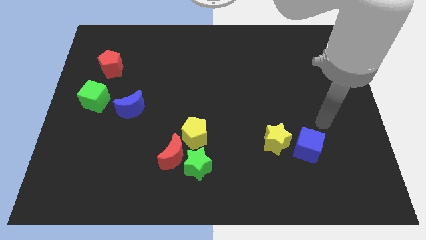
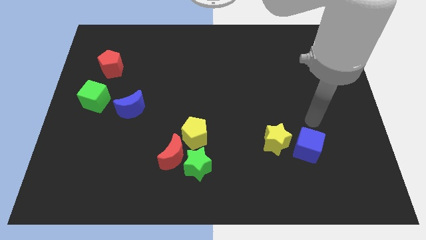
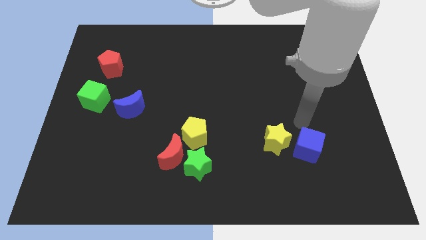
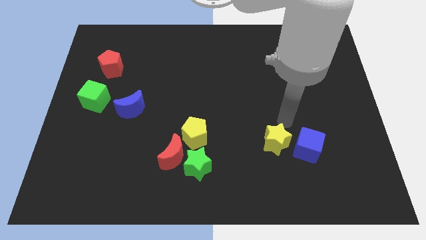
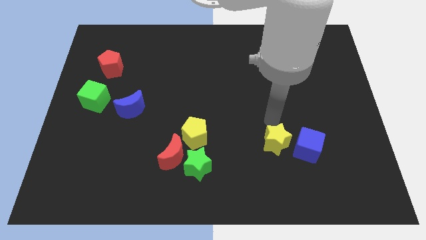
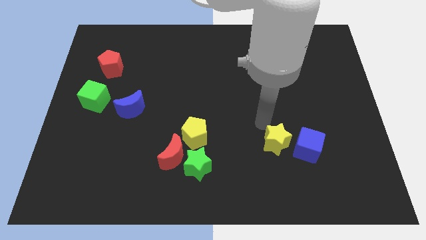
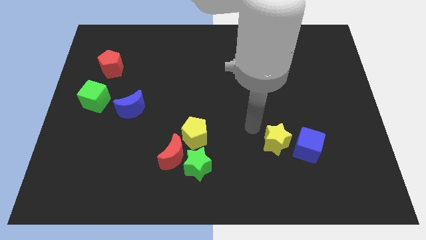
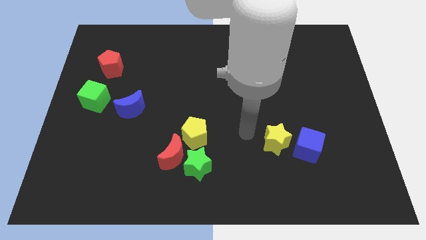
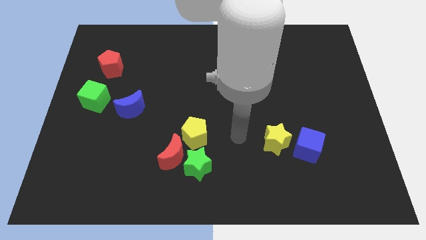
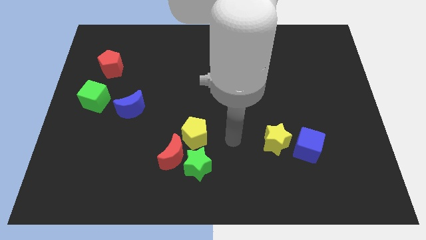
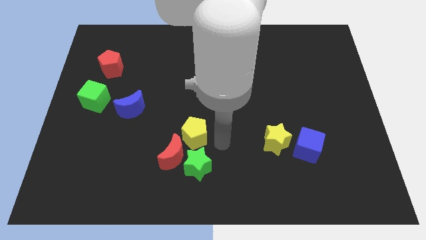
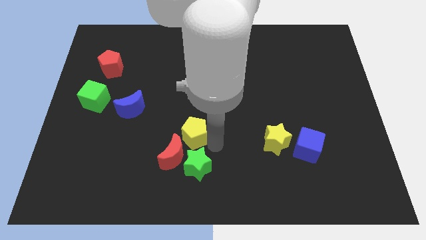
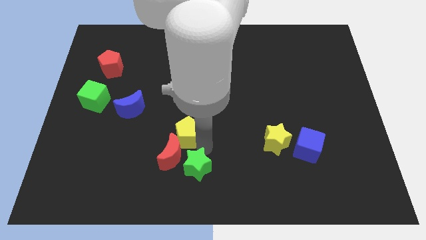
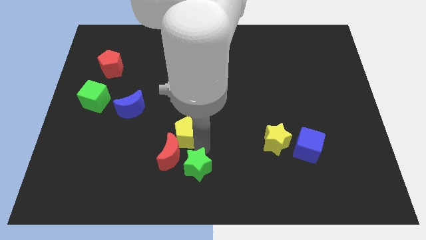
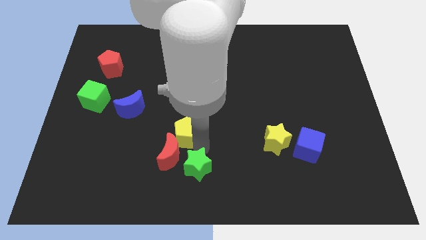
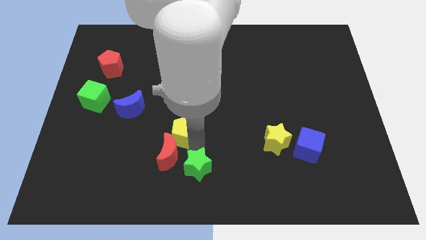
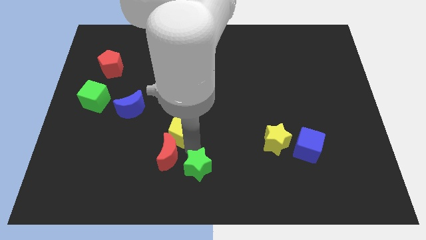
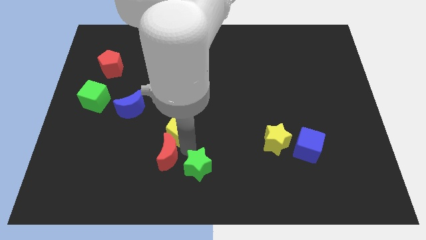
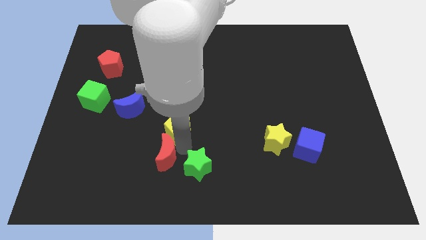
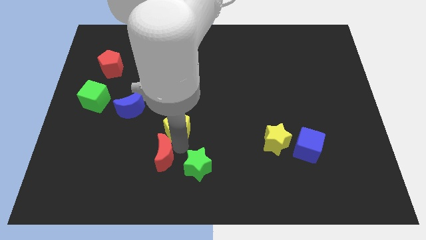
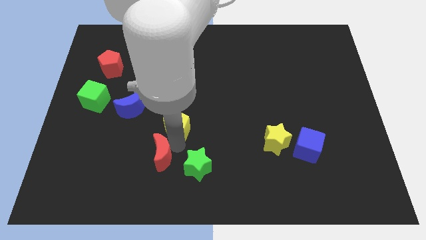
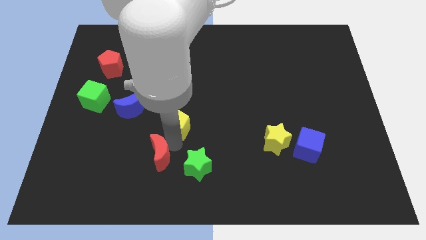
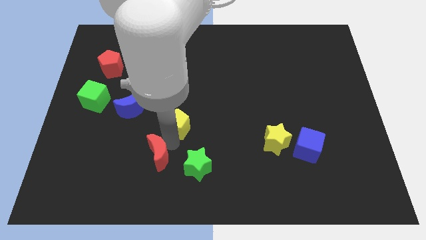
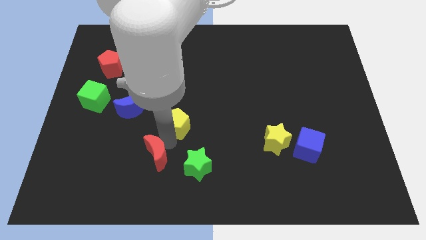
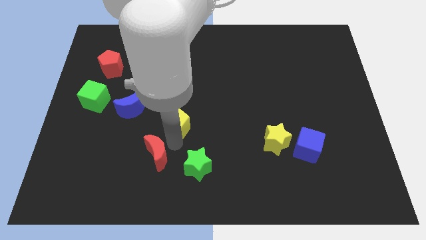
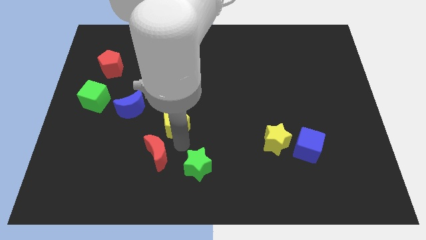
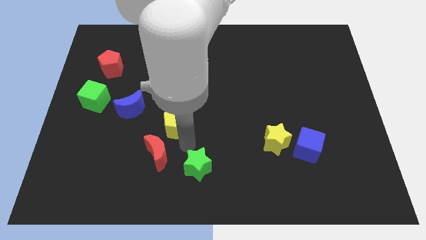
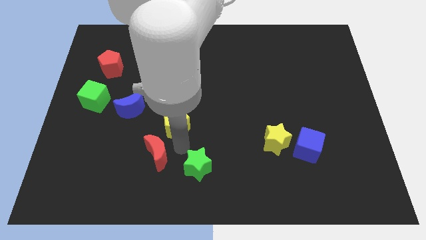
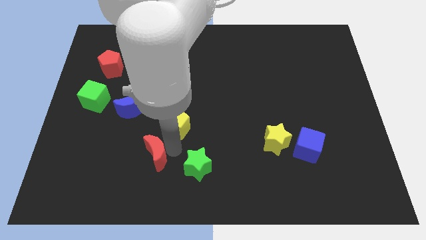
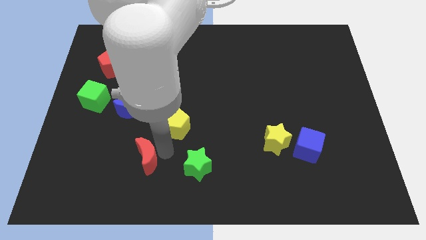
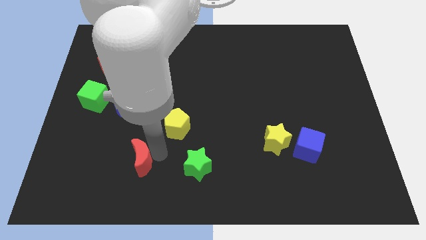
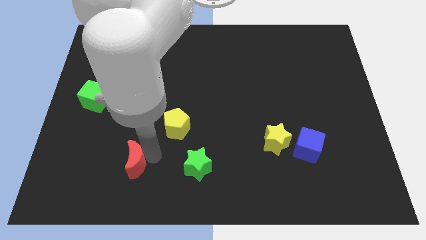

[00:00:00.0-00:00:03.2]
pull the red moon apart from the green star and yellow pentagon

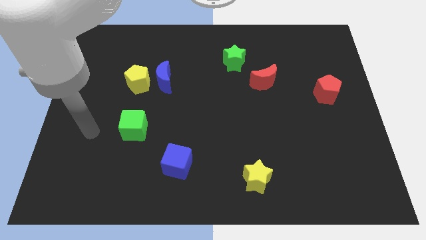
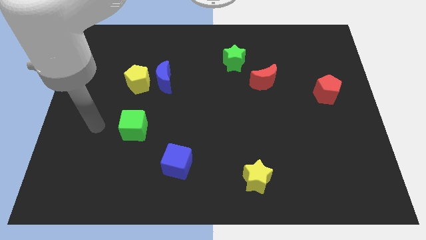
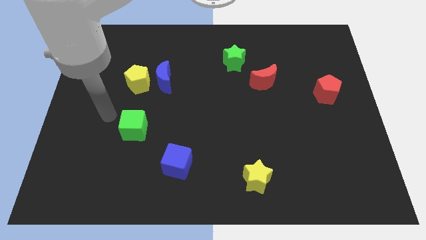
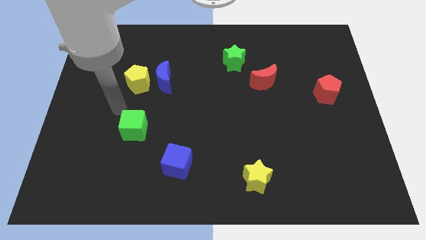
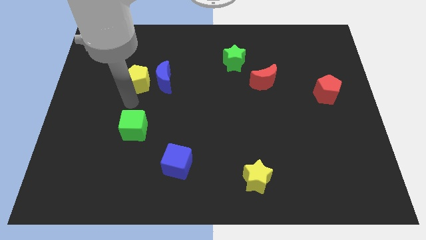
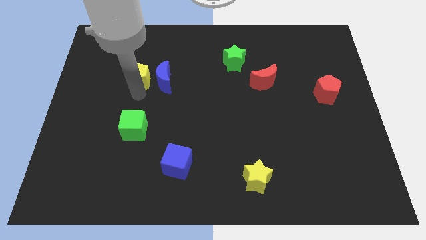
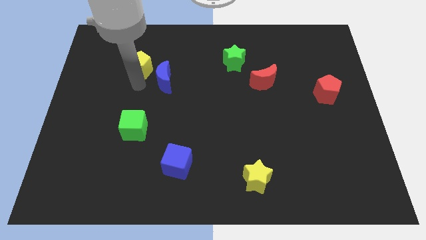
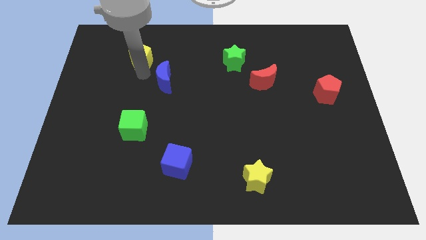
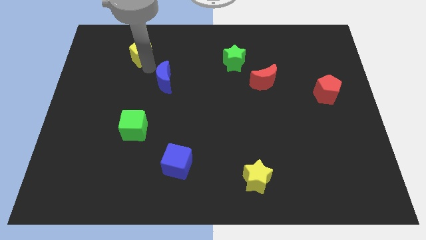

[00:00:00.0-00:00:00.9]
move the blue moon away from the yellow pentagon

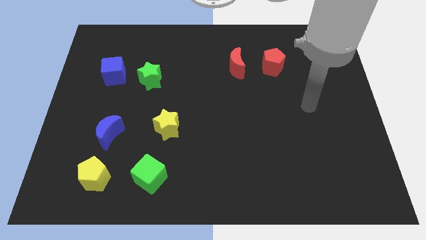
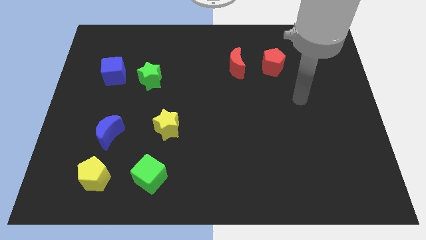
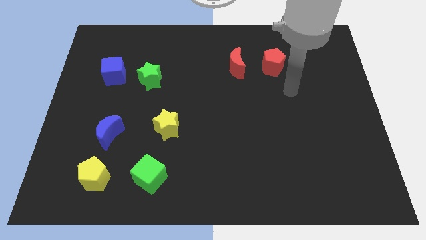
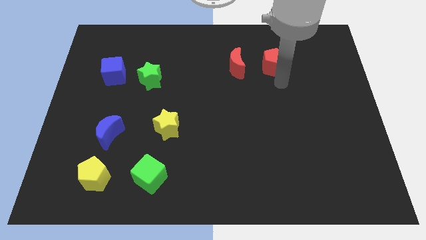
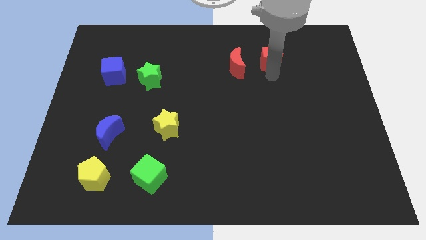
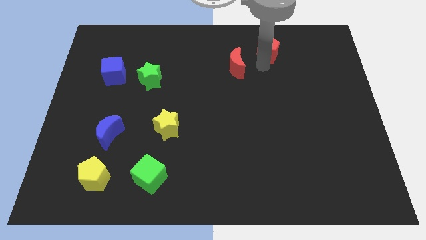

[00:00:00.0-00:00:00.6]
separate the red moon from the red pentagon

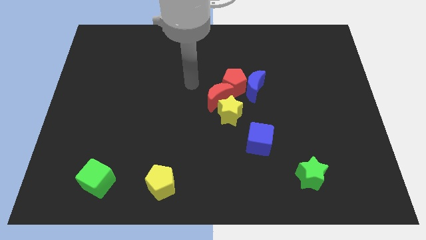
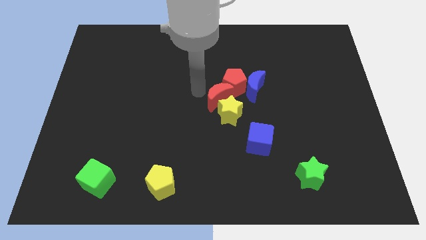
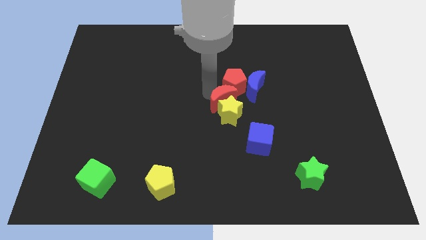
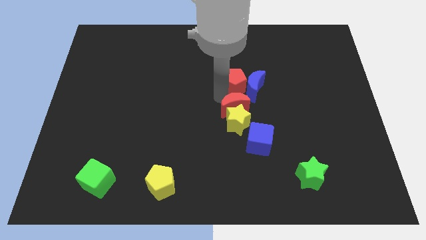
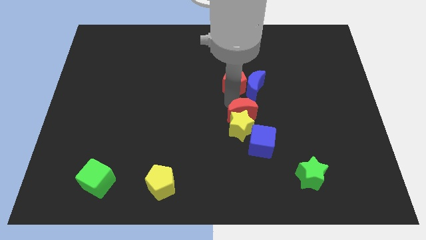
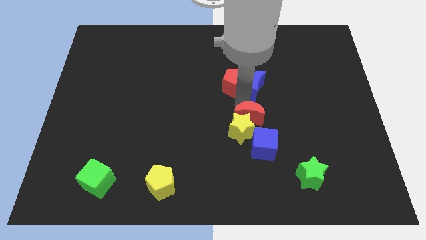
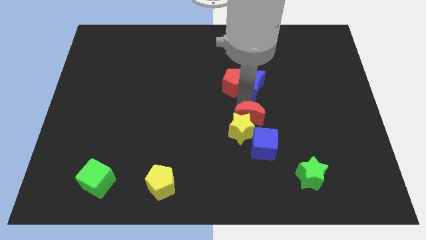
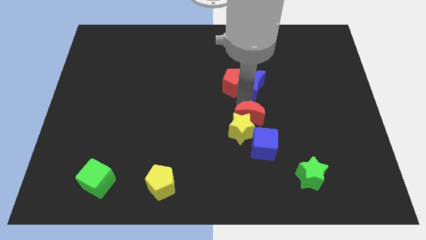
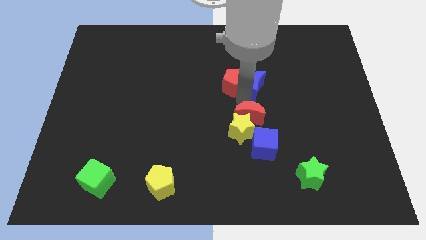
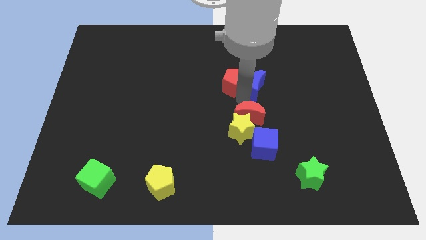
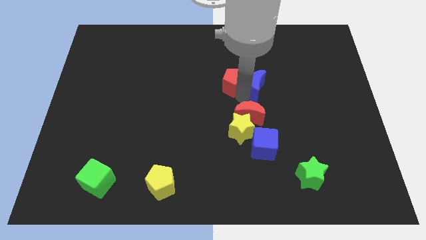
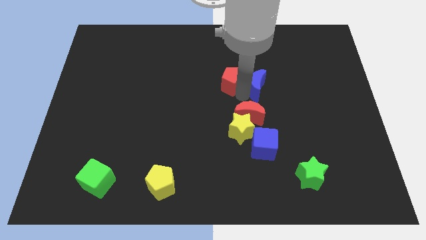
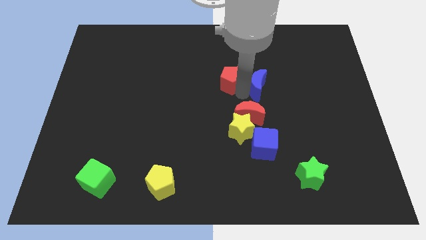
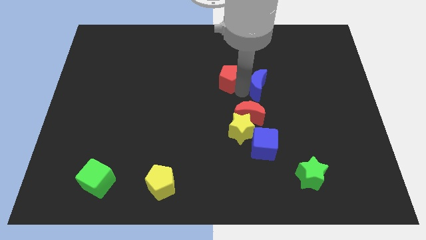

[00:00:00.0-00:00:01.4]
move the red pentagon away from the blue moon, red moon, and yellow star

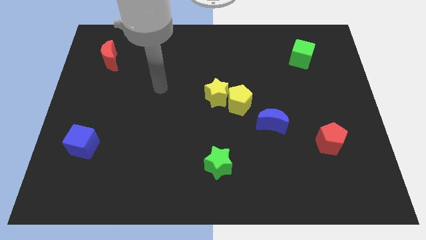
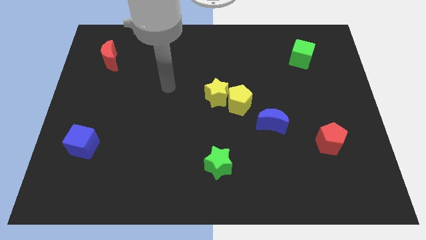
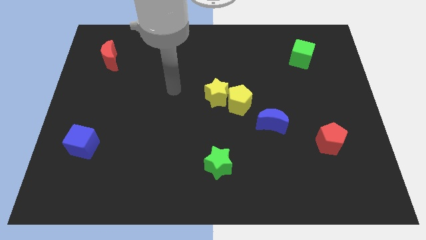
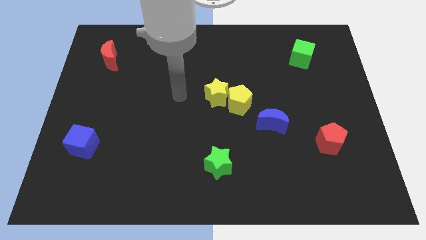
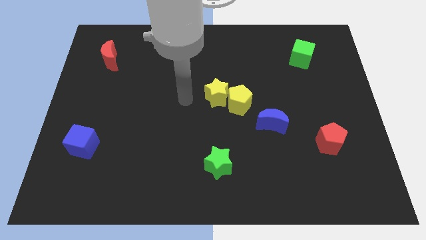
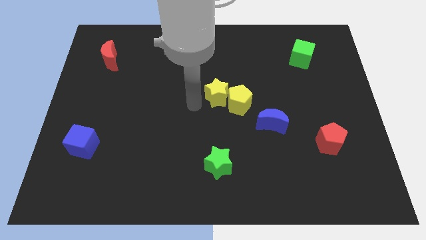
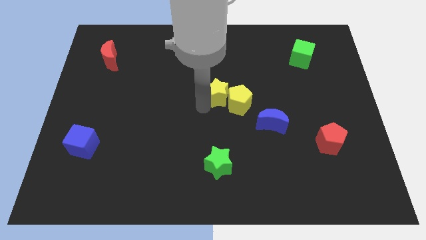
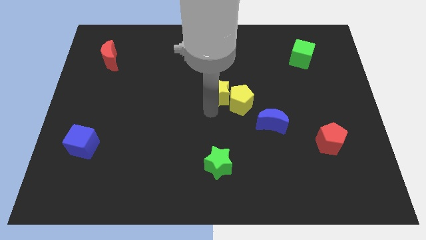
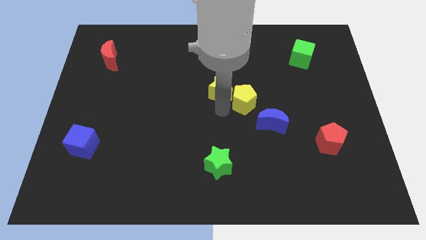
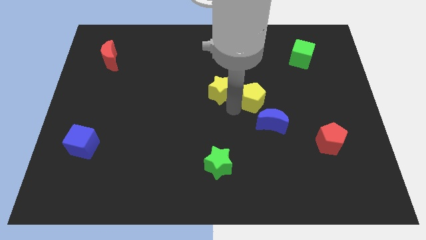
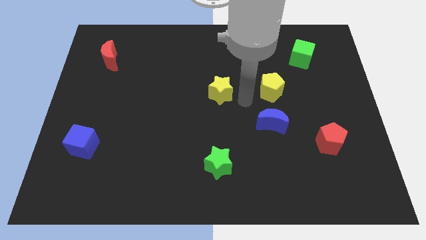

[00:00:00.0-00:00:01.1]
pull the yellow star apart from the yellow pentagon

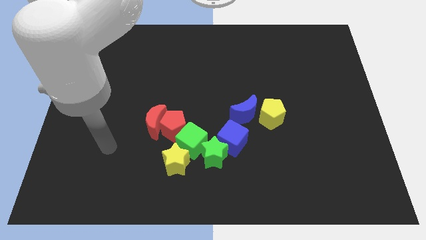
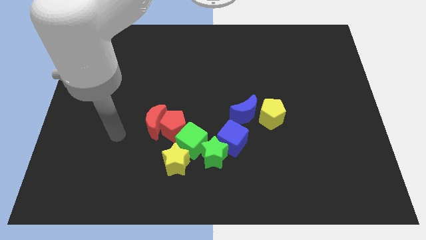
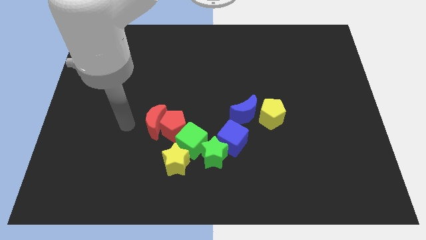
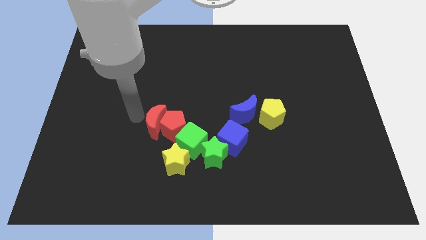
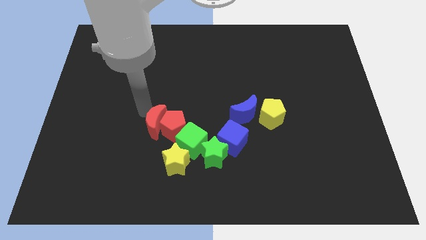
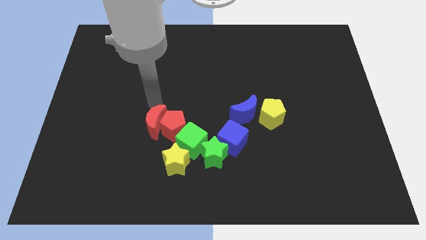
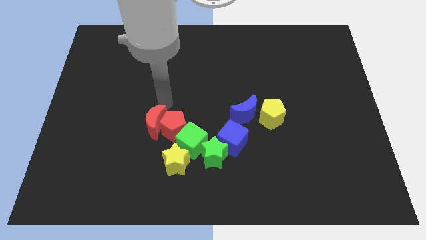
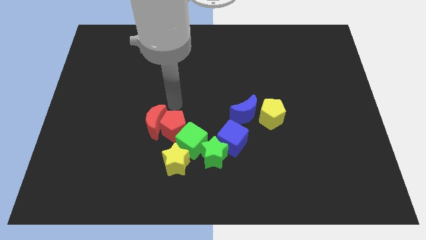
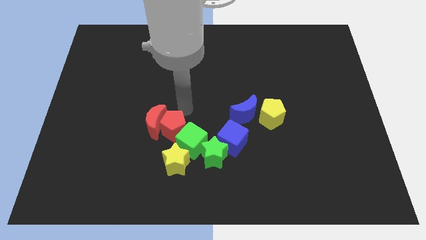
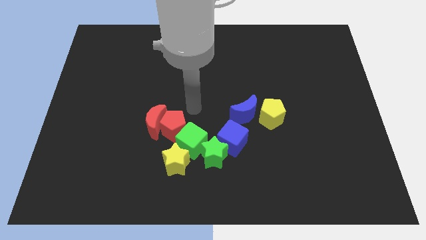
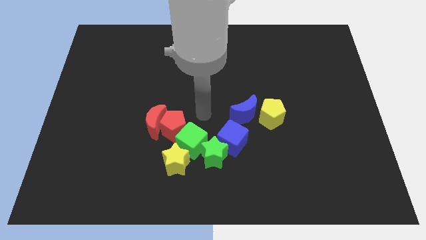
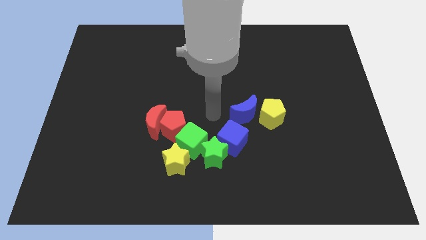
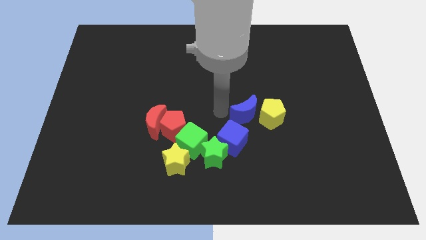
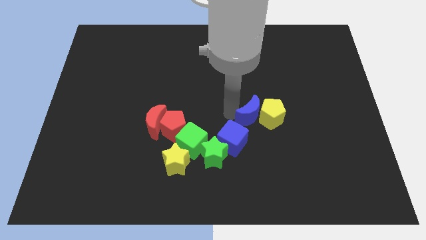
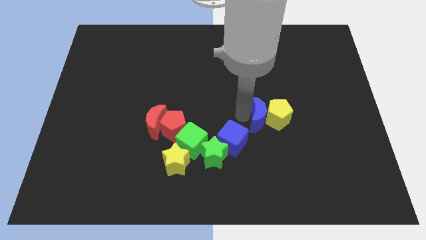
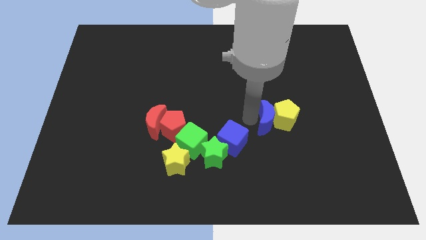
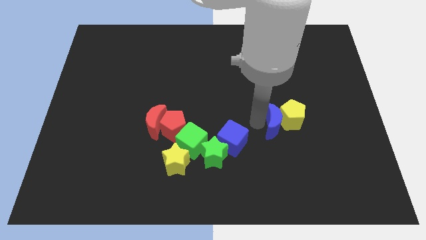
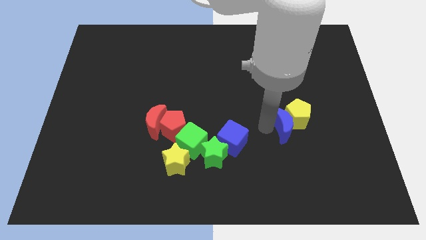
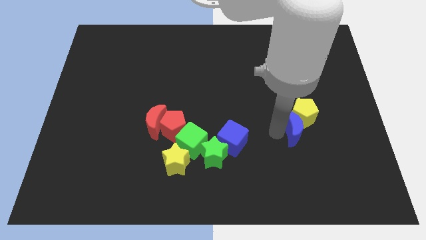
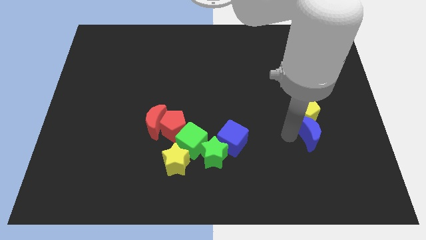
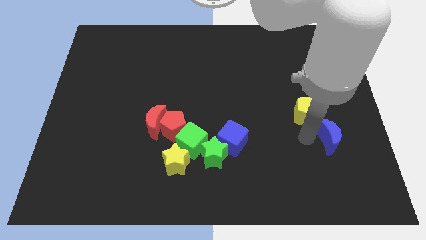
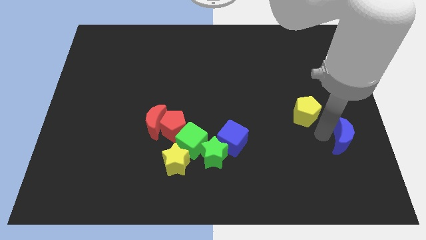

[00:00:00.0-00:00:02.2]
separate the yellow pentagon from the blue moon
